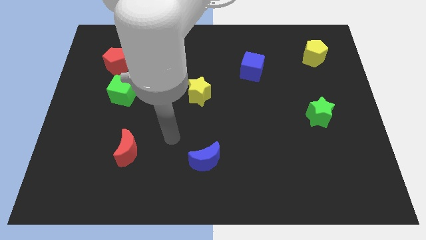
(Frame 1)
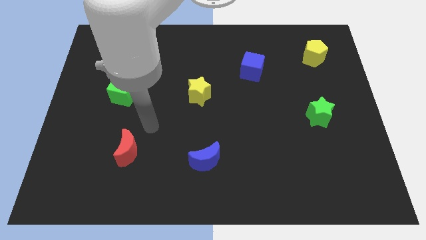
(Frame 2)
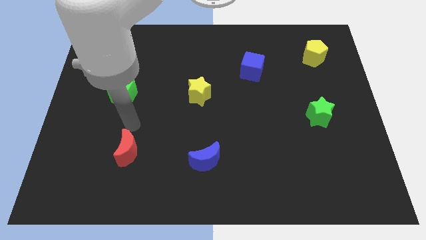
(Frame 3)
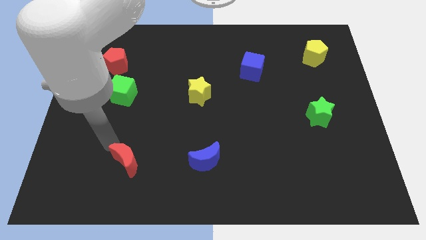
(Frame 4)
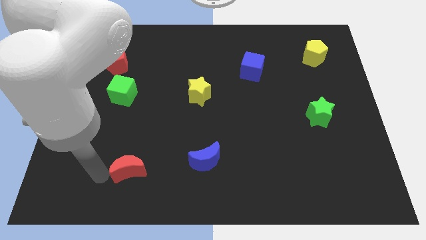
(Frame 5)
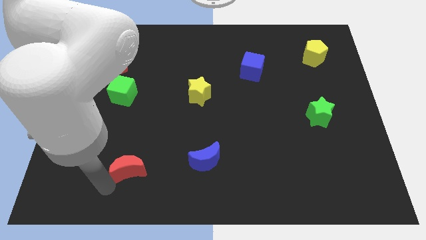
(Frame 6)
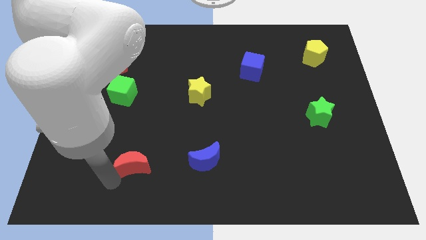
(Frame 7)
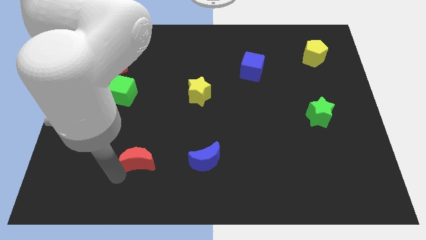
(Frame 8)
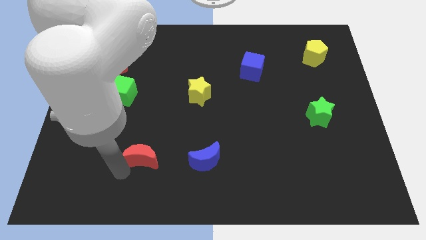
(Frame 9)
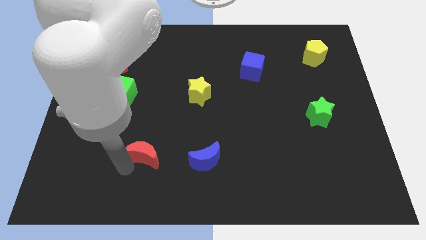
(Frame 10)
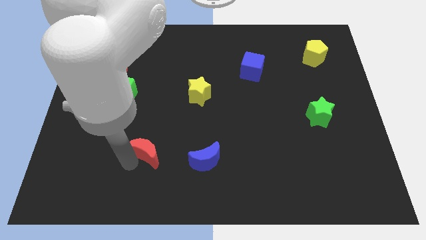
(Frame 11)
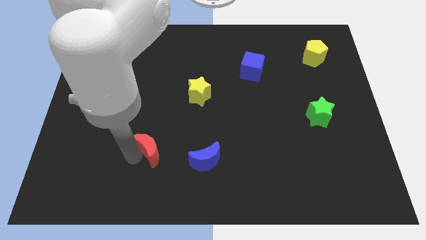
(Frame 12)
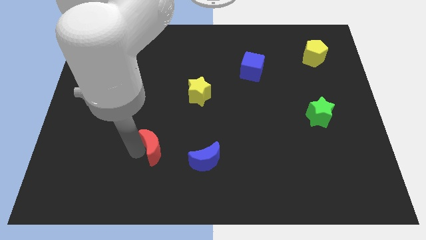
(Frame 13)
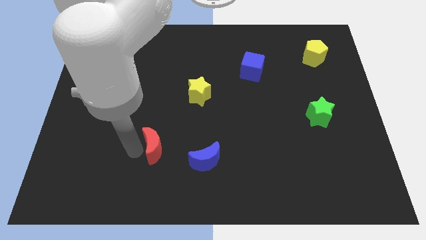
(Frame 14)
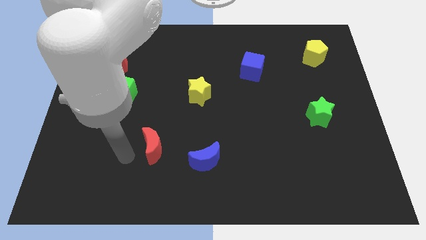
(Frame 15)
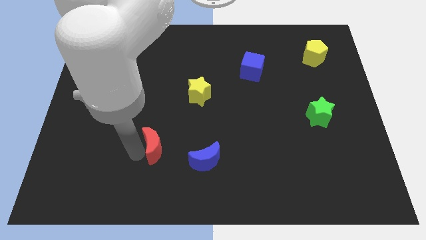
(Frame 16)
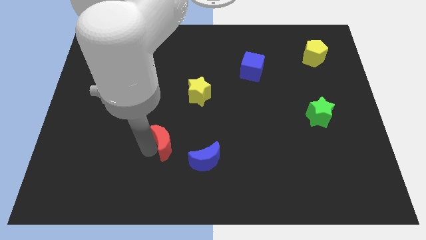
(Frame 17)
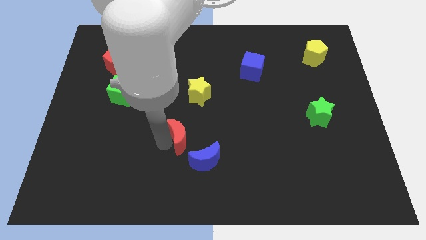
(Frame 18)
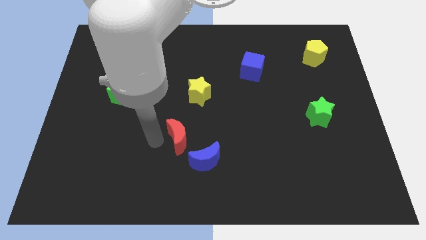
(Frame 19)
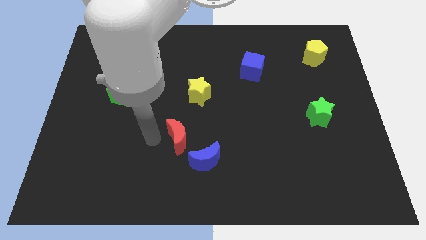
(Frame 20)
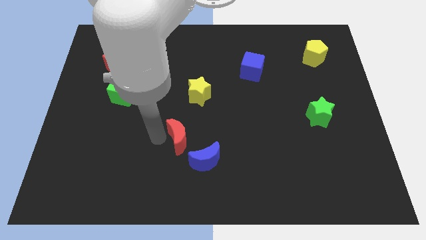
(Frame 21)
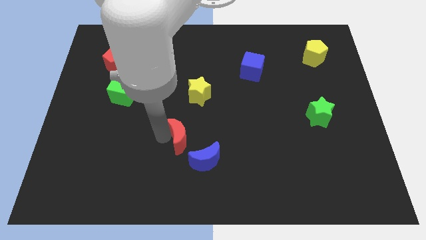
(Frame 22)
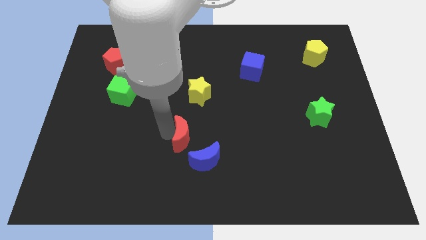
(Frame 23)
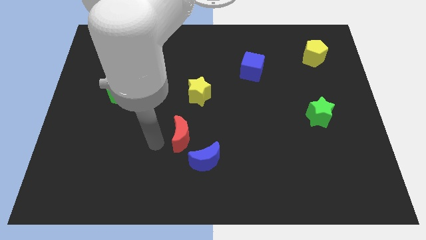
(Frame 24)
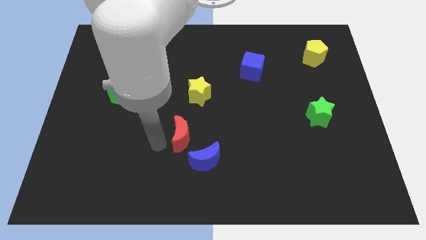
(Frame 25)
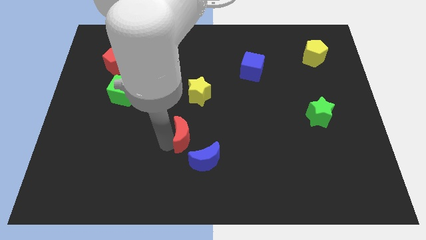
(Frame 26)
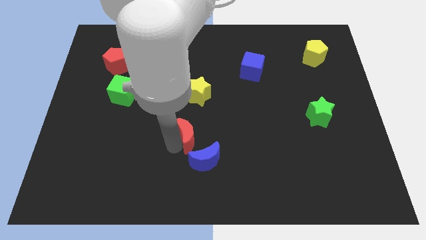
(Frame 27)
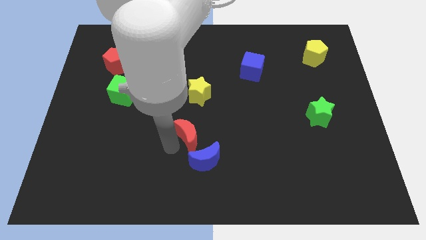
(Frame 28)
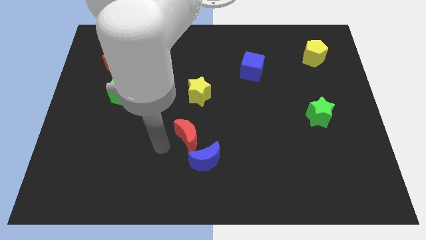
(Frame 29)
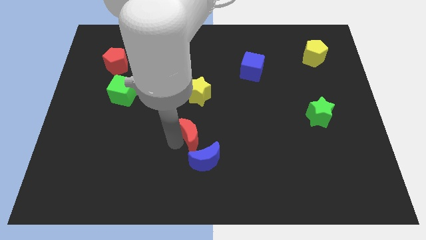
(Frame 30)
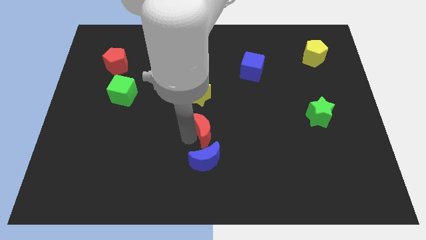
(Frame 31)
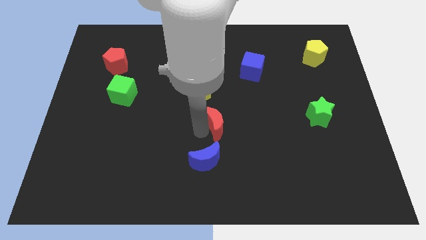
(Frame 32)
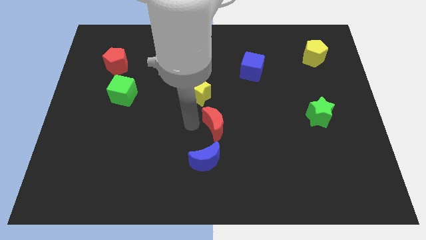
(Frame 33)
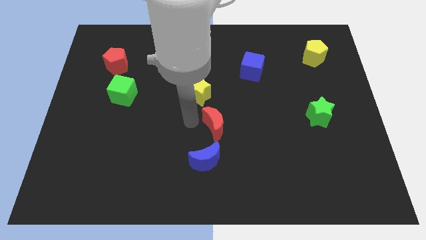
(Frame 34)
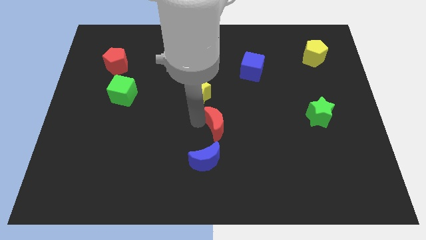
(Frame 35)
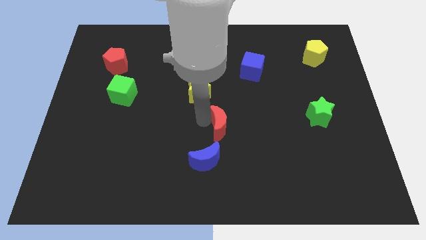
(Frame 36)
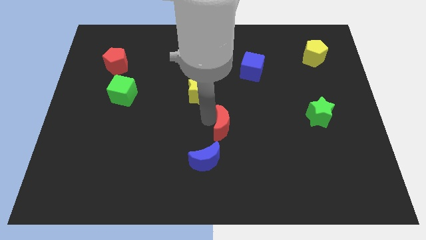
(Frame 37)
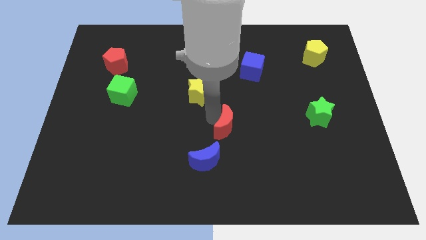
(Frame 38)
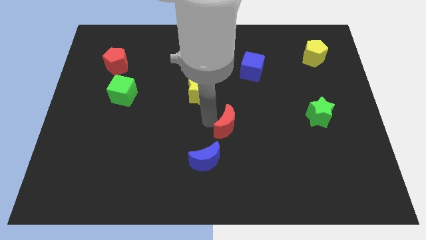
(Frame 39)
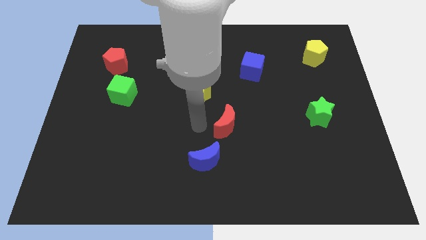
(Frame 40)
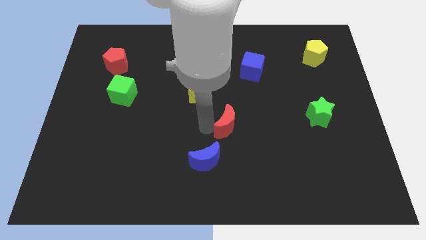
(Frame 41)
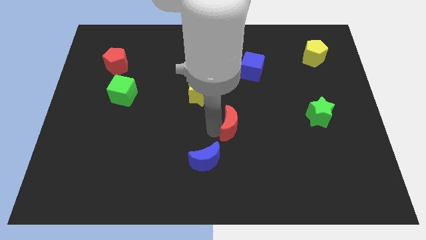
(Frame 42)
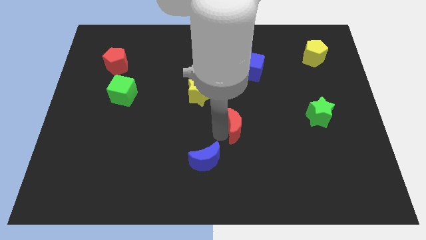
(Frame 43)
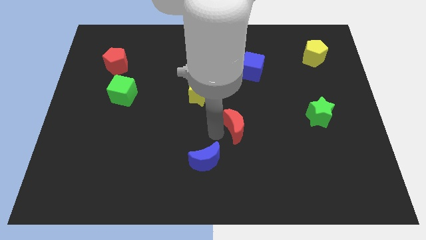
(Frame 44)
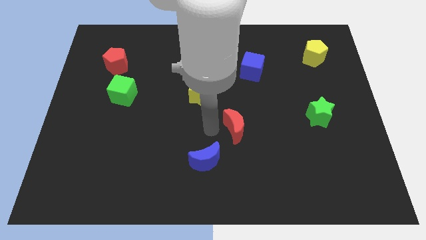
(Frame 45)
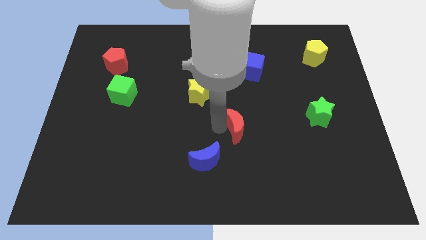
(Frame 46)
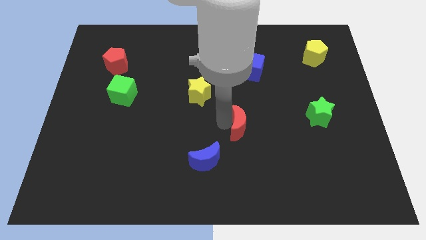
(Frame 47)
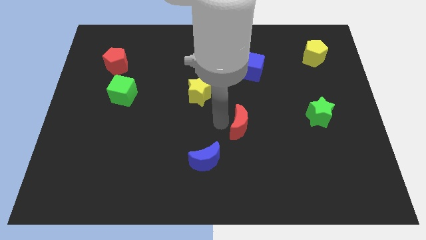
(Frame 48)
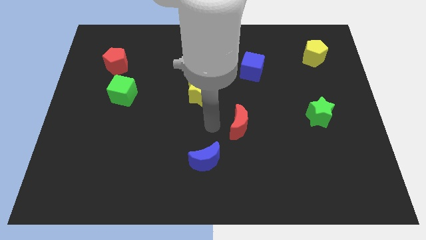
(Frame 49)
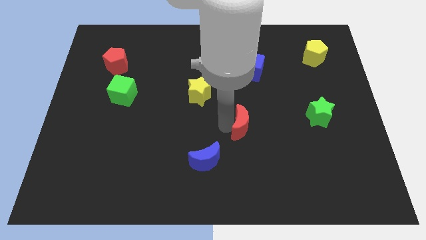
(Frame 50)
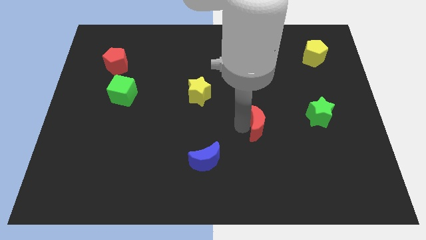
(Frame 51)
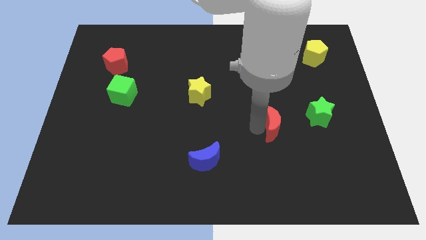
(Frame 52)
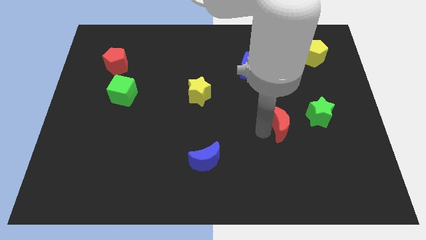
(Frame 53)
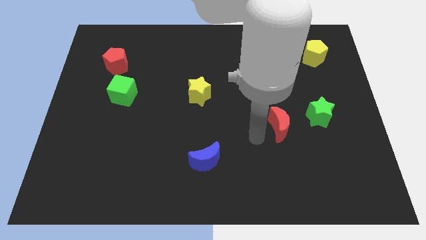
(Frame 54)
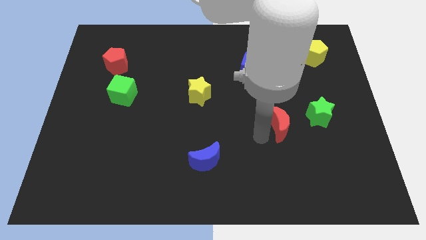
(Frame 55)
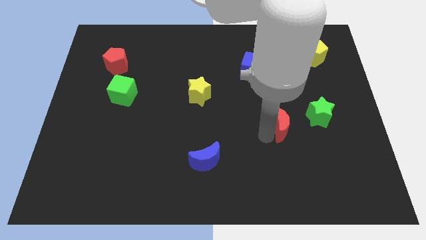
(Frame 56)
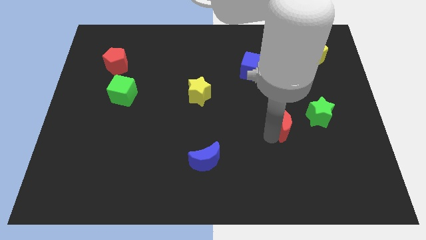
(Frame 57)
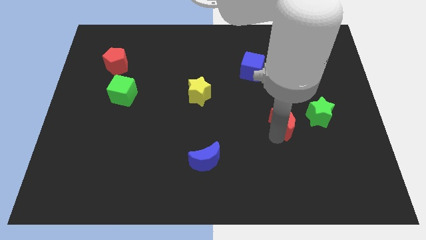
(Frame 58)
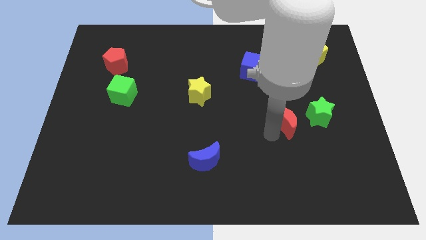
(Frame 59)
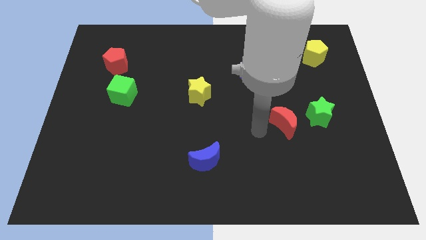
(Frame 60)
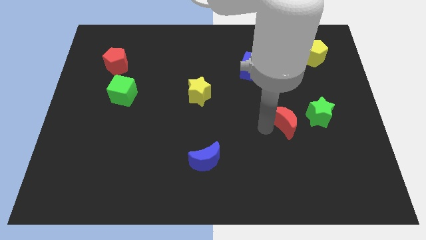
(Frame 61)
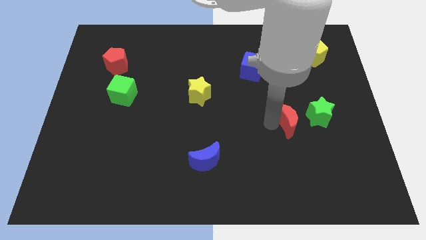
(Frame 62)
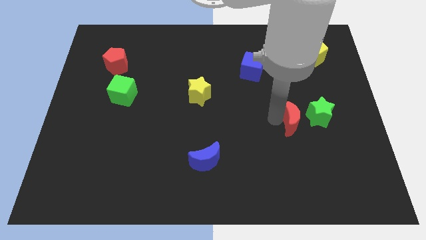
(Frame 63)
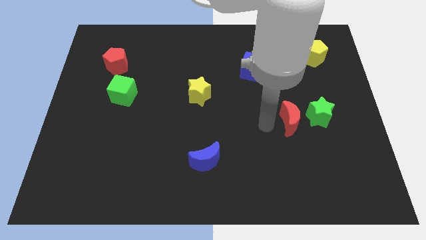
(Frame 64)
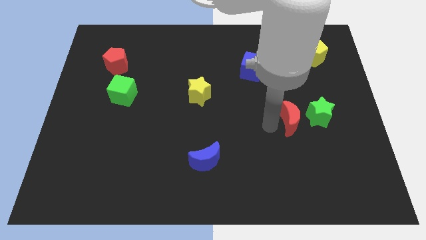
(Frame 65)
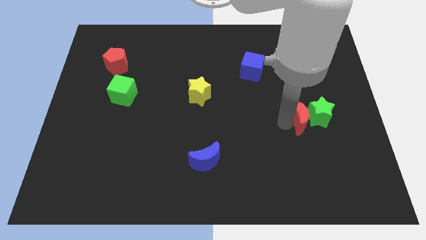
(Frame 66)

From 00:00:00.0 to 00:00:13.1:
put the red moon next to the green star
